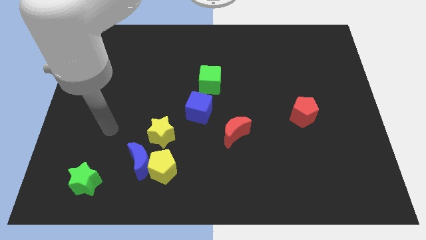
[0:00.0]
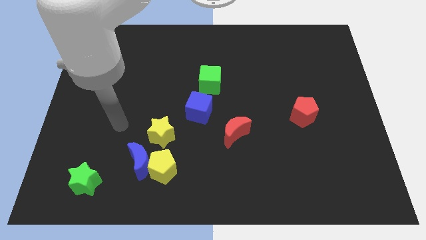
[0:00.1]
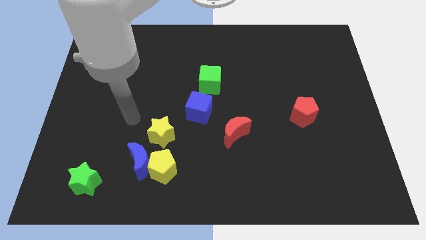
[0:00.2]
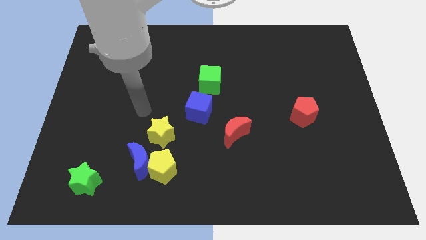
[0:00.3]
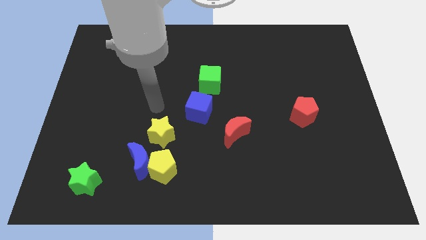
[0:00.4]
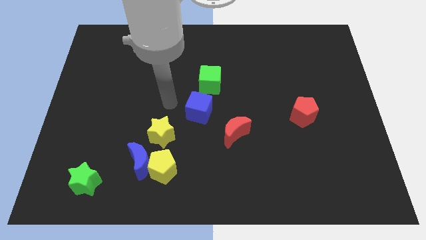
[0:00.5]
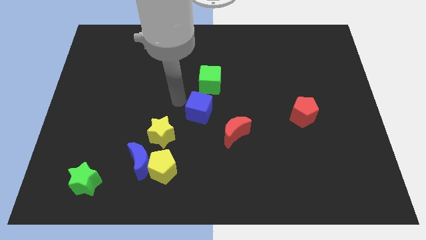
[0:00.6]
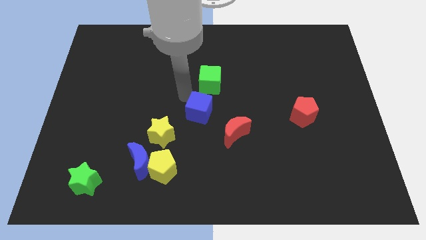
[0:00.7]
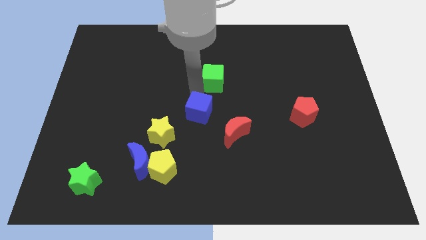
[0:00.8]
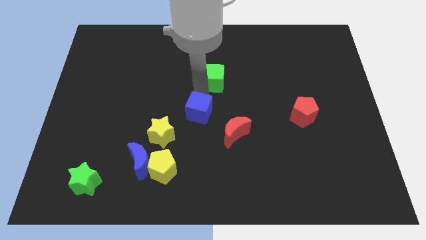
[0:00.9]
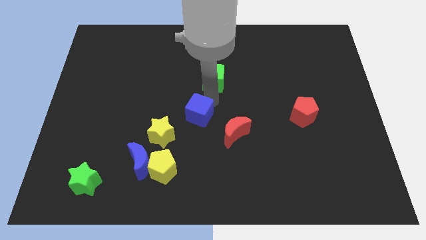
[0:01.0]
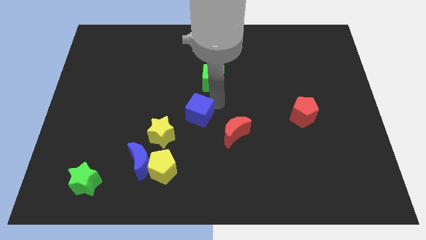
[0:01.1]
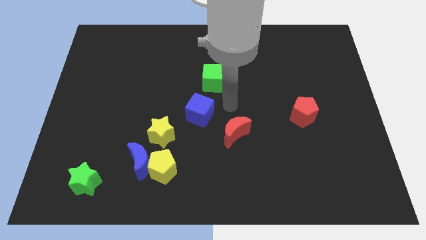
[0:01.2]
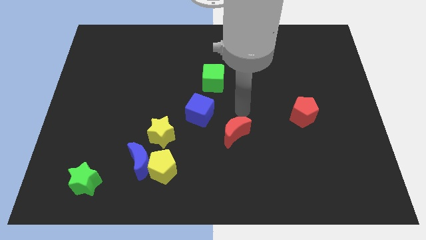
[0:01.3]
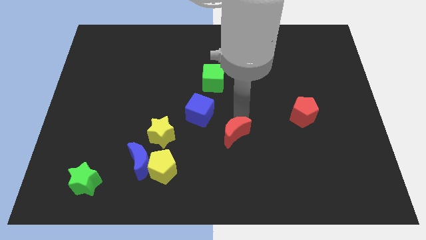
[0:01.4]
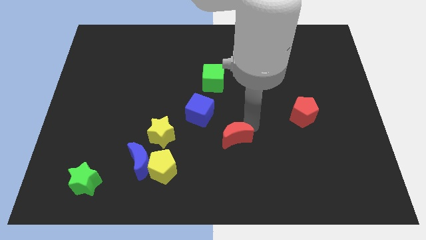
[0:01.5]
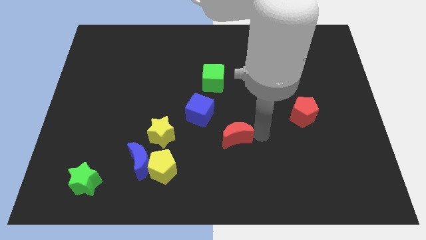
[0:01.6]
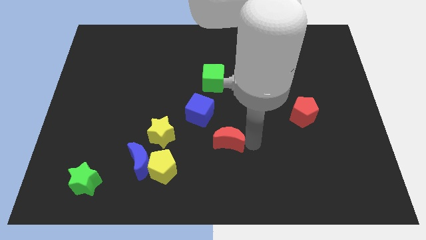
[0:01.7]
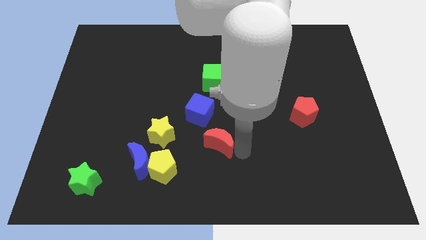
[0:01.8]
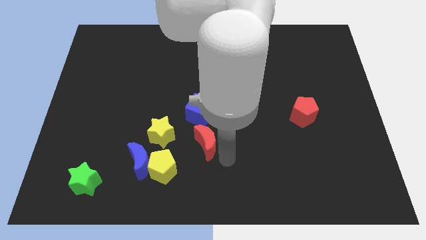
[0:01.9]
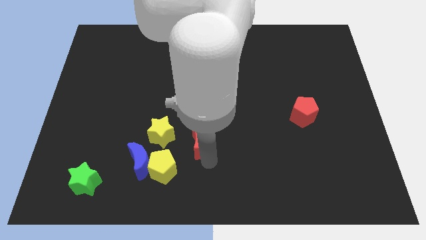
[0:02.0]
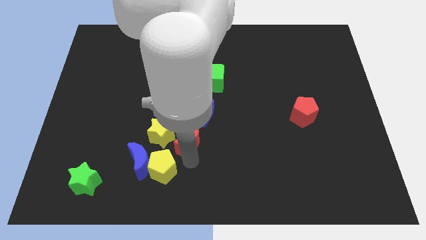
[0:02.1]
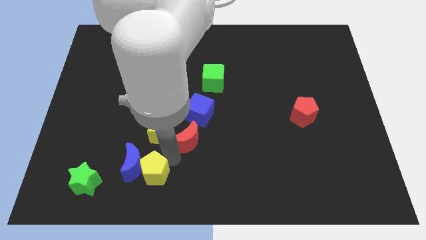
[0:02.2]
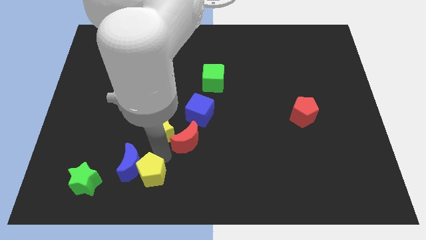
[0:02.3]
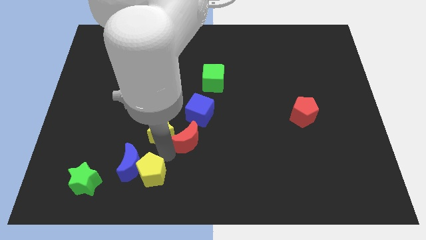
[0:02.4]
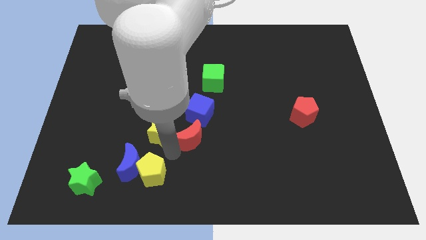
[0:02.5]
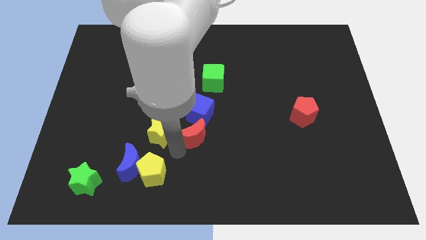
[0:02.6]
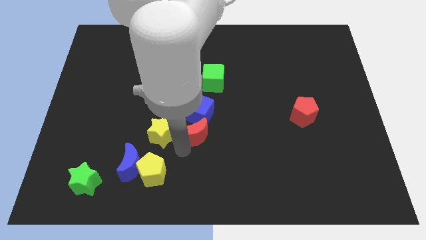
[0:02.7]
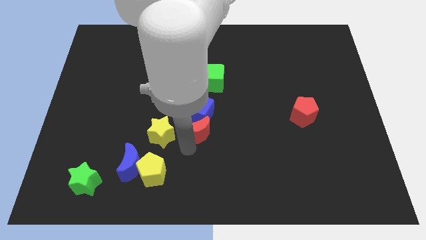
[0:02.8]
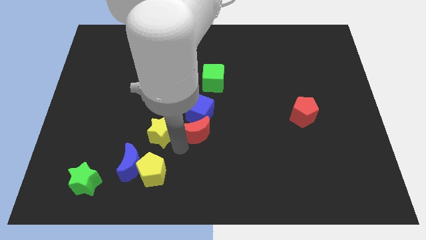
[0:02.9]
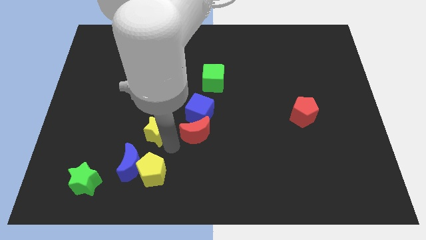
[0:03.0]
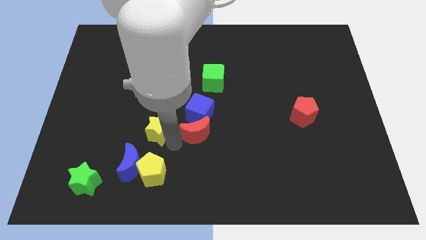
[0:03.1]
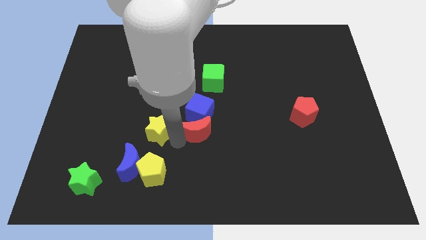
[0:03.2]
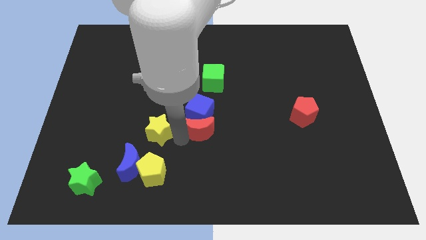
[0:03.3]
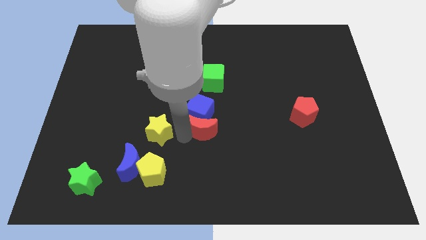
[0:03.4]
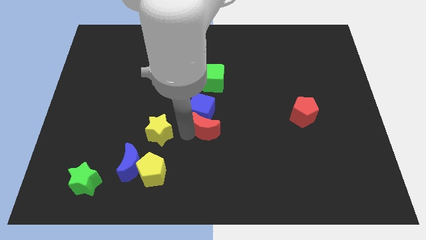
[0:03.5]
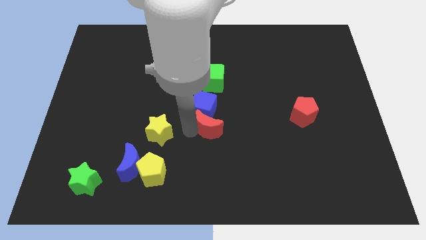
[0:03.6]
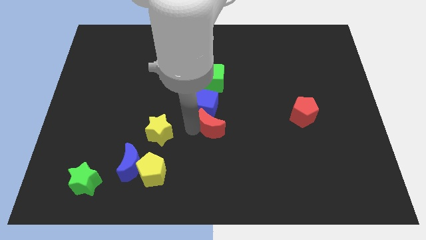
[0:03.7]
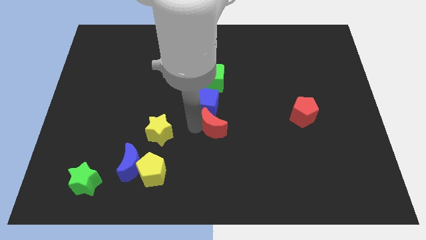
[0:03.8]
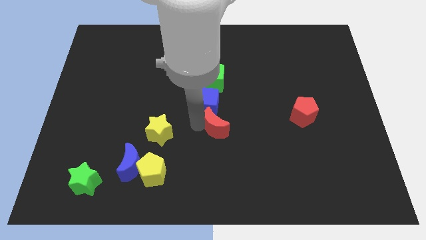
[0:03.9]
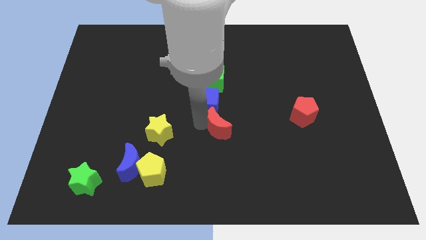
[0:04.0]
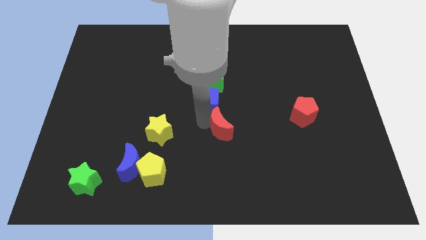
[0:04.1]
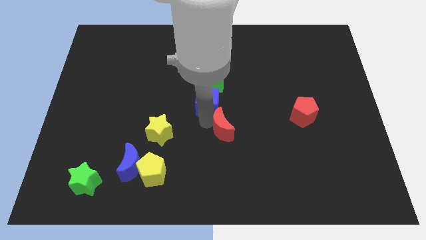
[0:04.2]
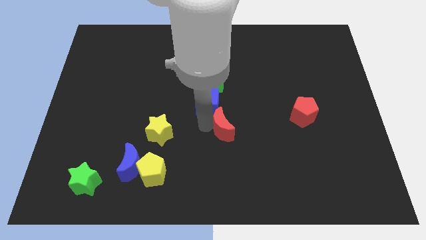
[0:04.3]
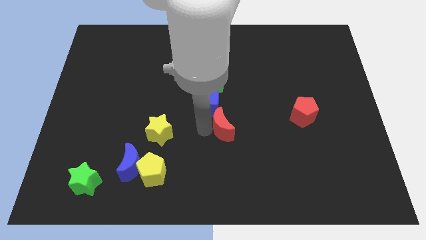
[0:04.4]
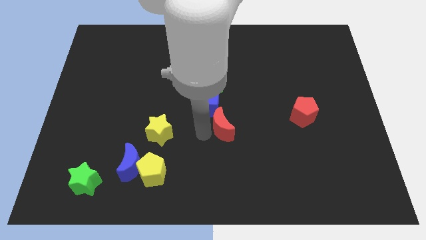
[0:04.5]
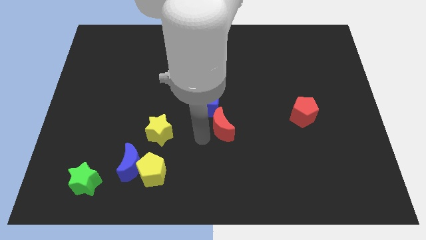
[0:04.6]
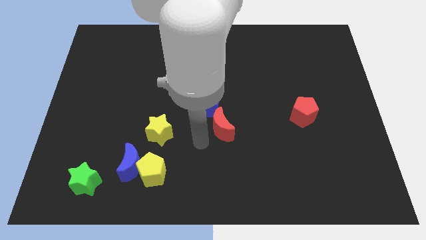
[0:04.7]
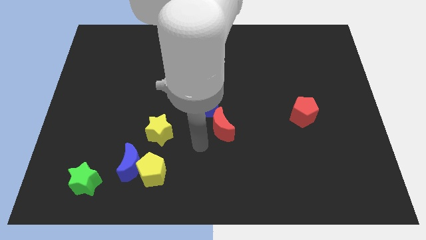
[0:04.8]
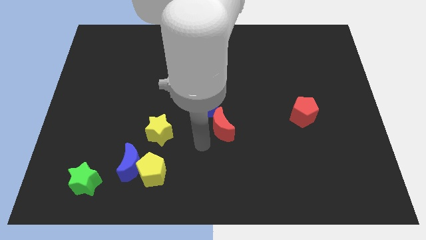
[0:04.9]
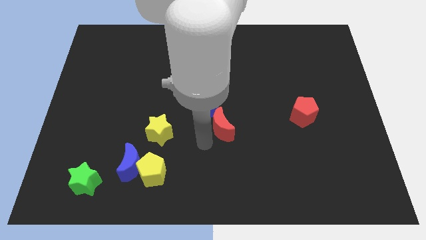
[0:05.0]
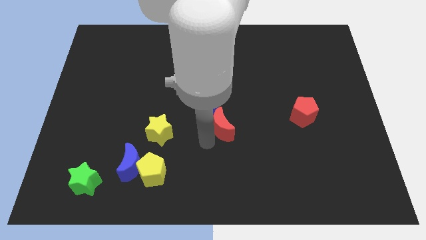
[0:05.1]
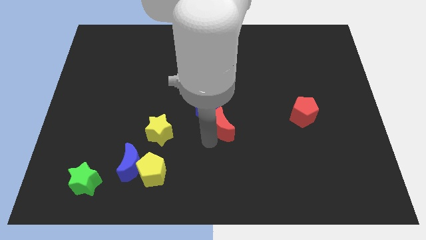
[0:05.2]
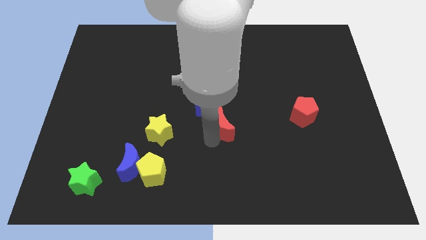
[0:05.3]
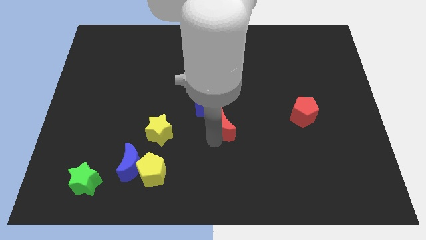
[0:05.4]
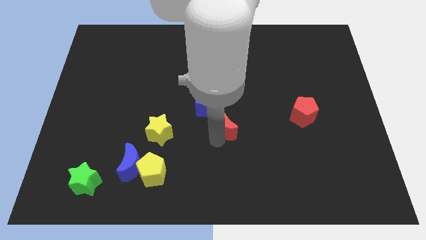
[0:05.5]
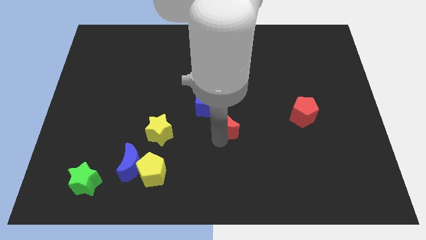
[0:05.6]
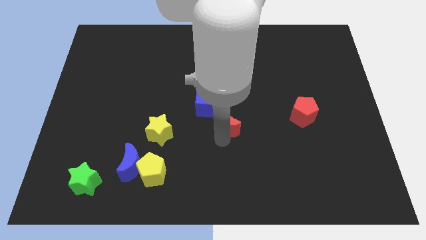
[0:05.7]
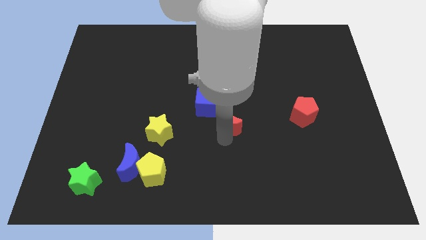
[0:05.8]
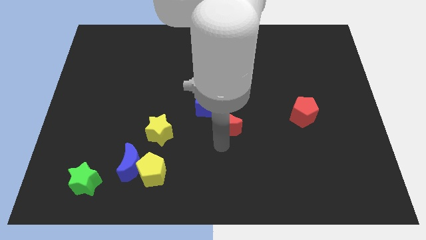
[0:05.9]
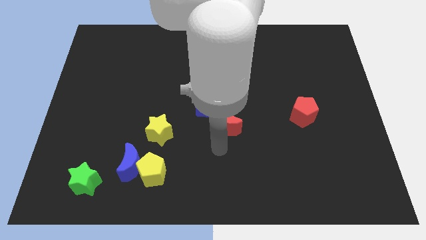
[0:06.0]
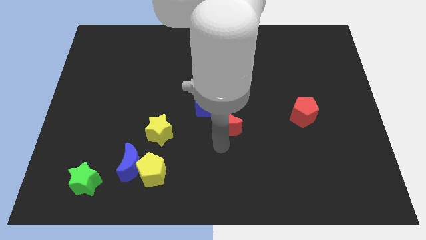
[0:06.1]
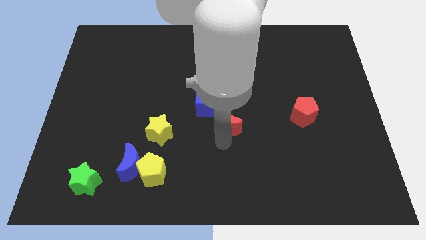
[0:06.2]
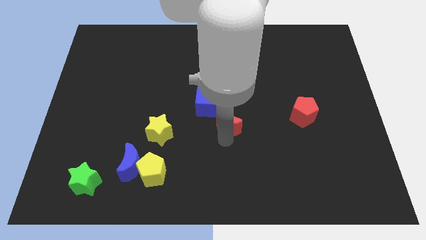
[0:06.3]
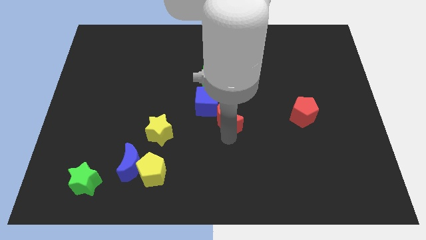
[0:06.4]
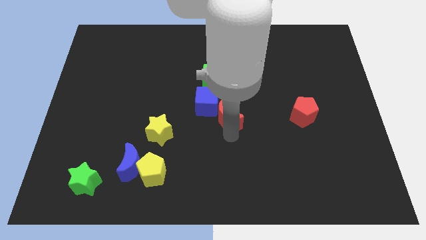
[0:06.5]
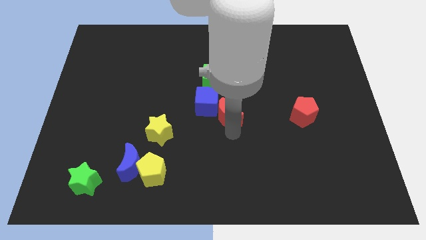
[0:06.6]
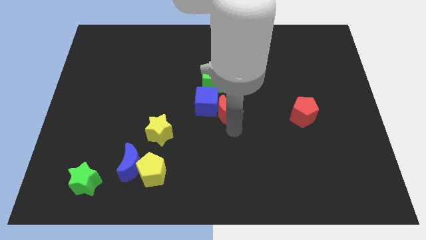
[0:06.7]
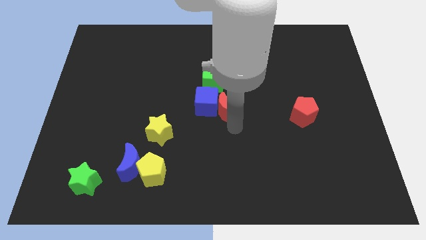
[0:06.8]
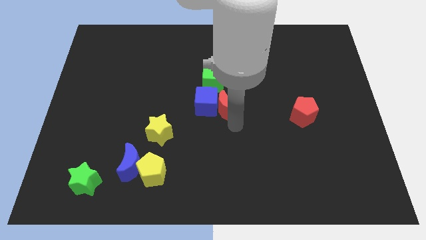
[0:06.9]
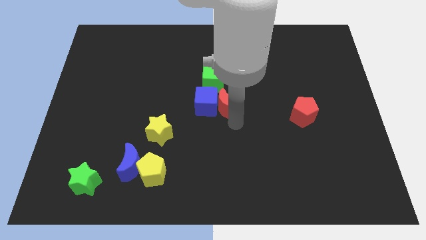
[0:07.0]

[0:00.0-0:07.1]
slide the red moon up slightly

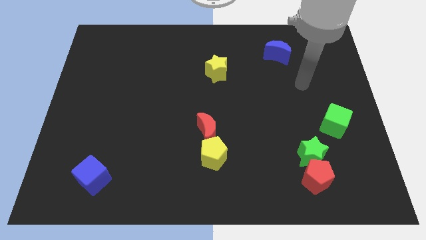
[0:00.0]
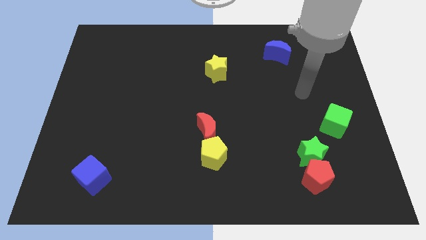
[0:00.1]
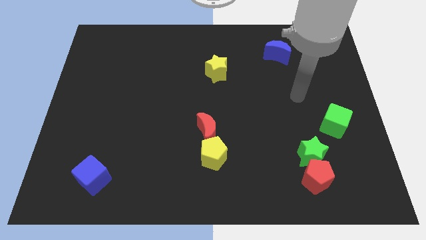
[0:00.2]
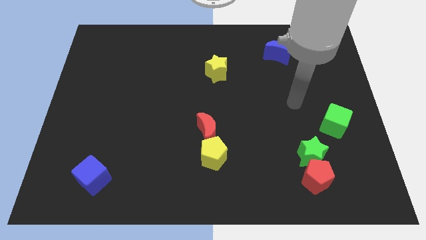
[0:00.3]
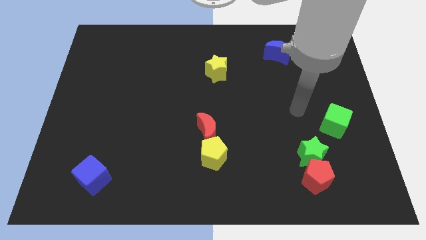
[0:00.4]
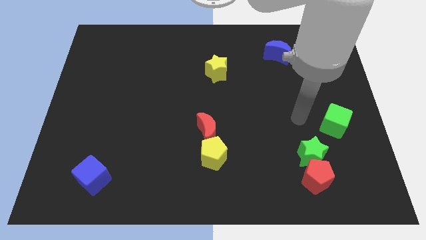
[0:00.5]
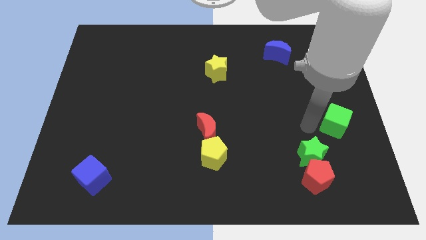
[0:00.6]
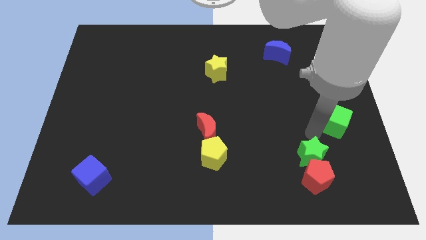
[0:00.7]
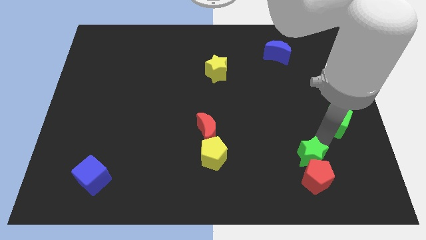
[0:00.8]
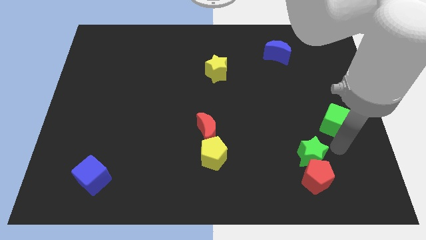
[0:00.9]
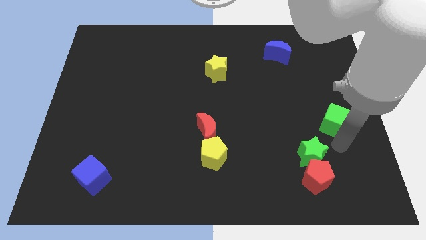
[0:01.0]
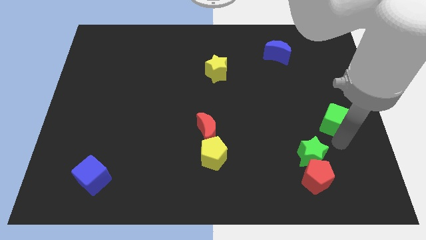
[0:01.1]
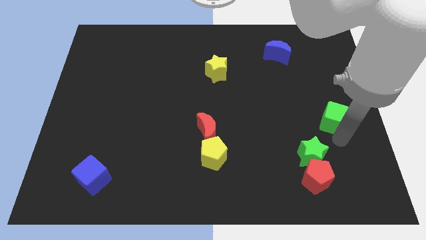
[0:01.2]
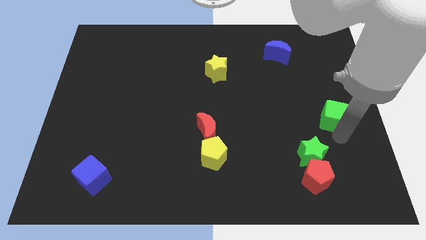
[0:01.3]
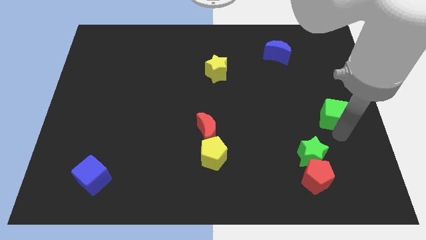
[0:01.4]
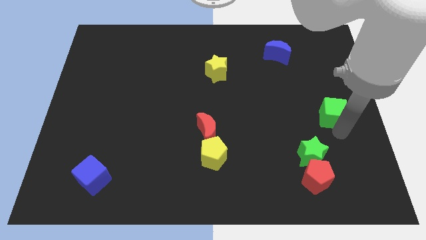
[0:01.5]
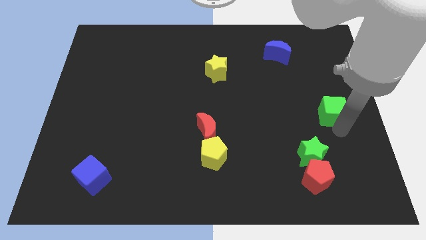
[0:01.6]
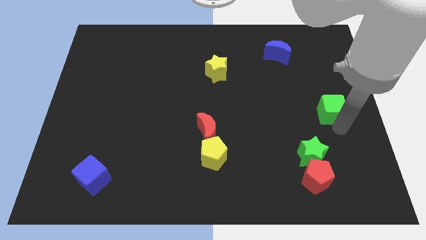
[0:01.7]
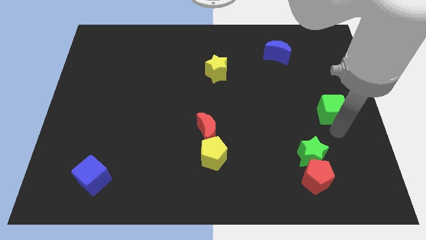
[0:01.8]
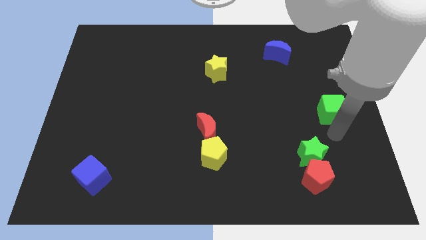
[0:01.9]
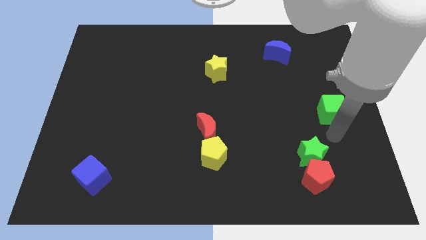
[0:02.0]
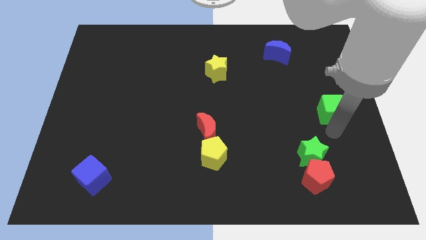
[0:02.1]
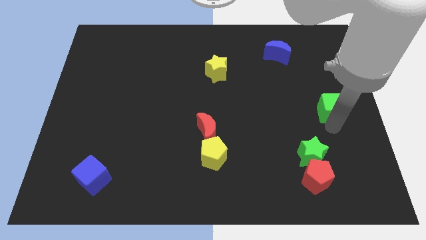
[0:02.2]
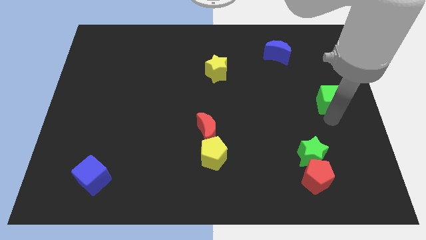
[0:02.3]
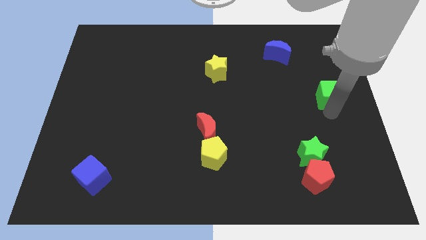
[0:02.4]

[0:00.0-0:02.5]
slide the green cube a bit upwards
